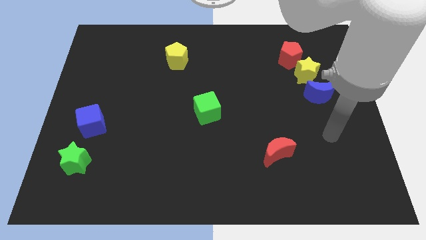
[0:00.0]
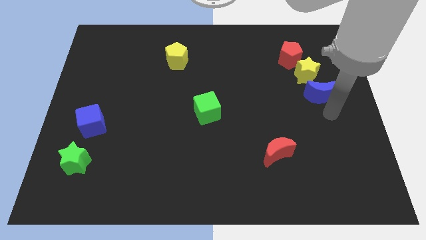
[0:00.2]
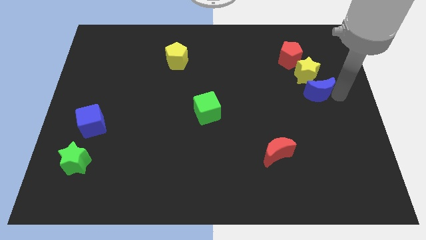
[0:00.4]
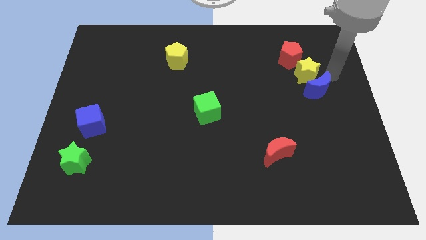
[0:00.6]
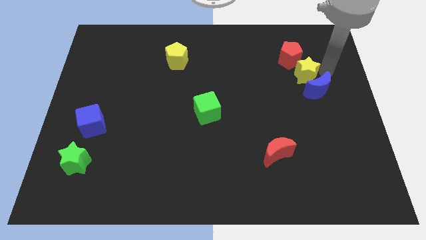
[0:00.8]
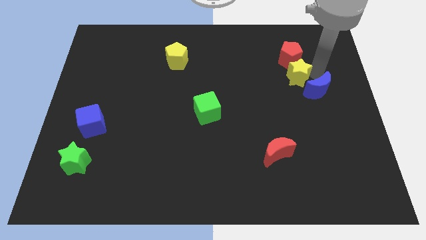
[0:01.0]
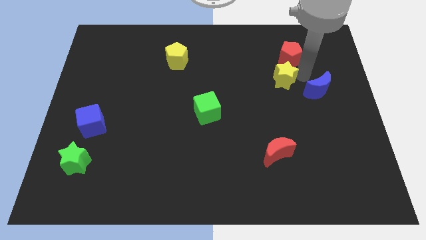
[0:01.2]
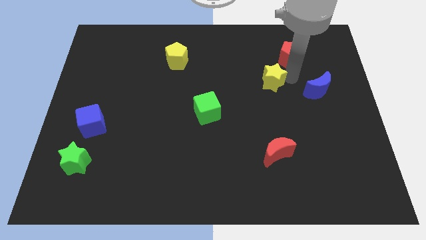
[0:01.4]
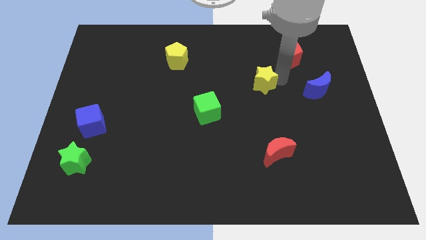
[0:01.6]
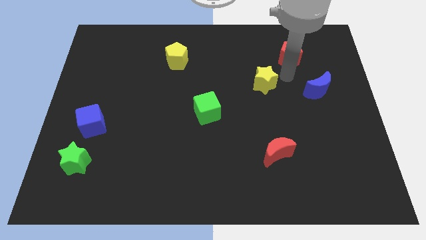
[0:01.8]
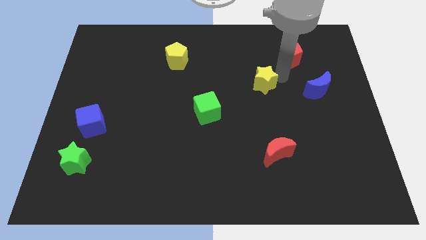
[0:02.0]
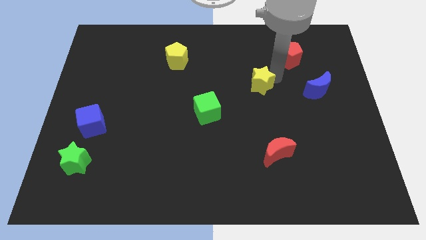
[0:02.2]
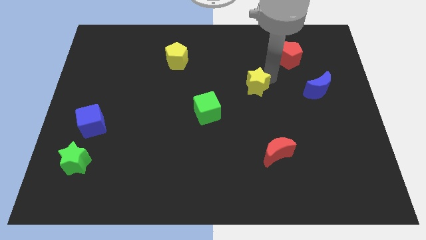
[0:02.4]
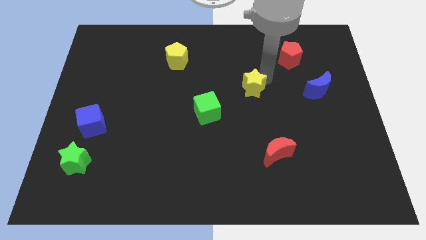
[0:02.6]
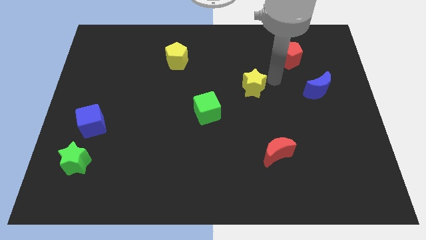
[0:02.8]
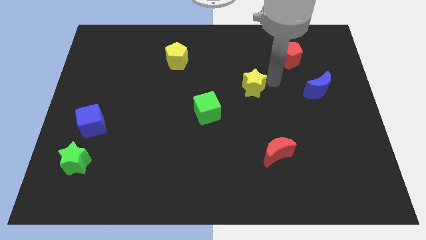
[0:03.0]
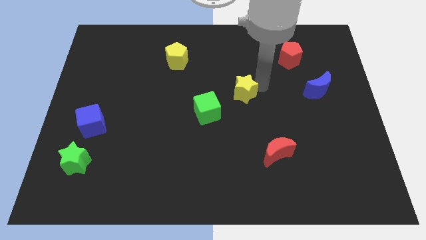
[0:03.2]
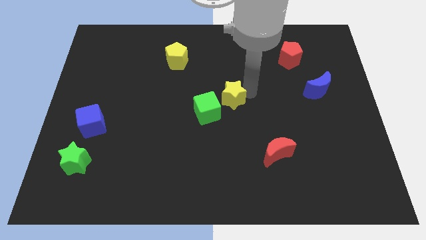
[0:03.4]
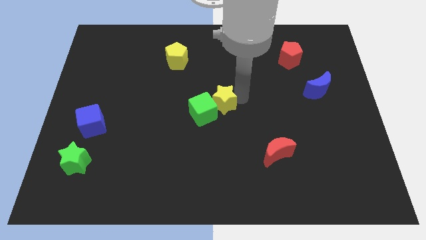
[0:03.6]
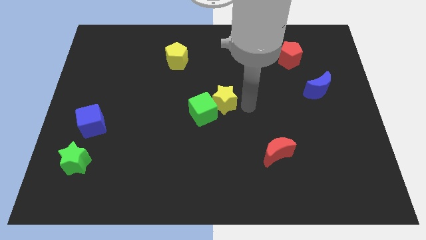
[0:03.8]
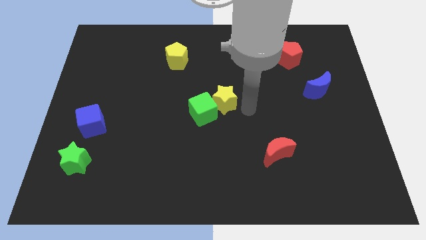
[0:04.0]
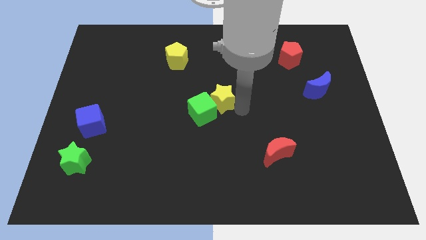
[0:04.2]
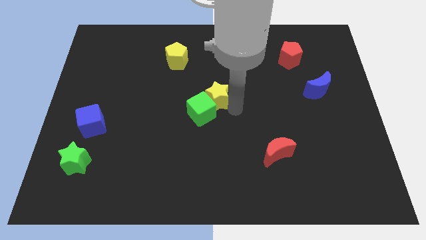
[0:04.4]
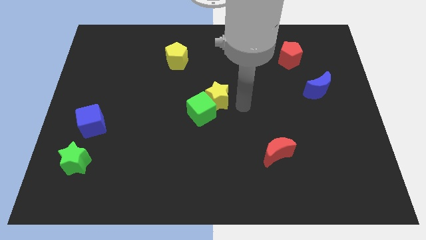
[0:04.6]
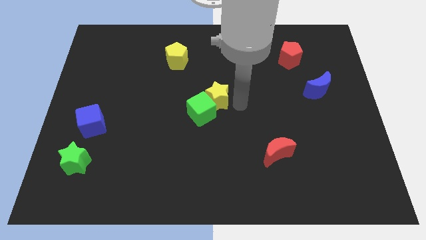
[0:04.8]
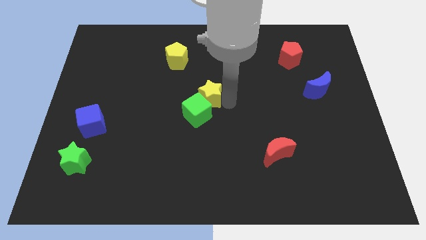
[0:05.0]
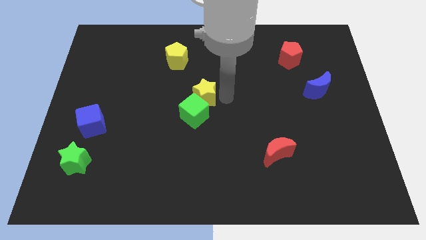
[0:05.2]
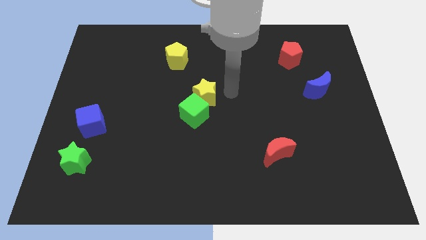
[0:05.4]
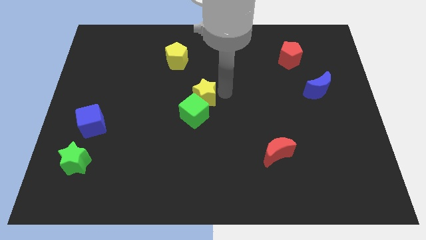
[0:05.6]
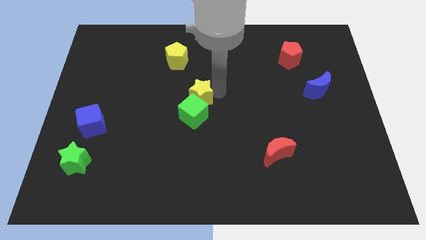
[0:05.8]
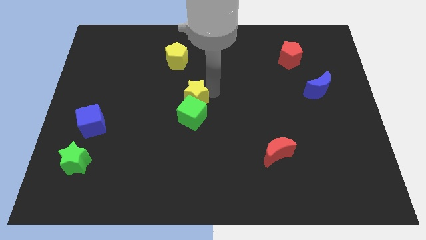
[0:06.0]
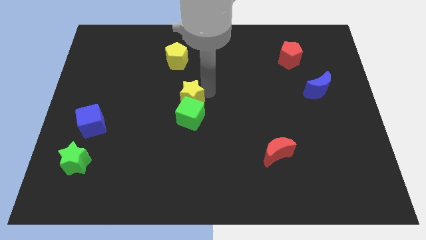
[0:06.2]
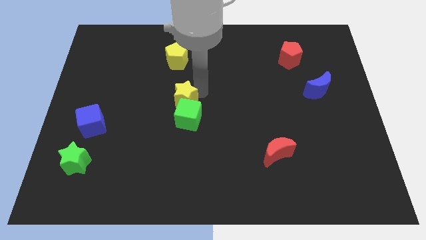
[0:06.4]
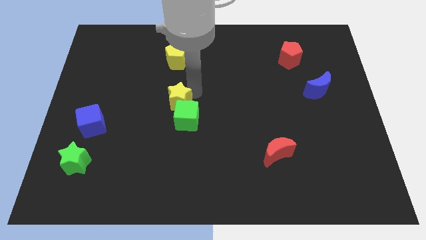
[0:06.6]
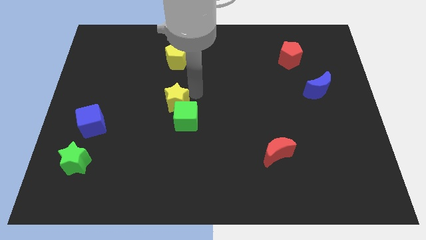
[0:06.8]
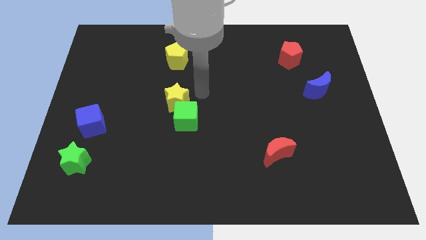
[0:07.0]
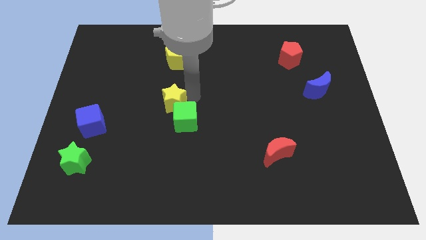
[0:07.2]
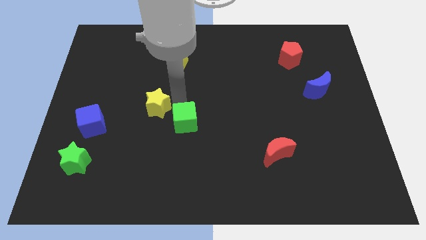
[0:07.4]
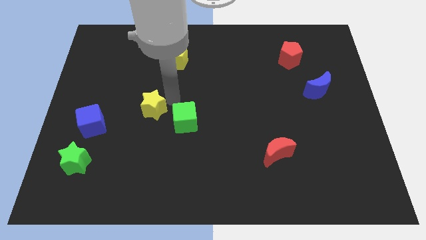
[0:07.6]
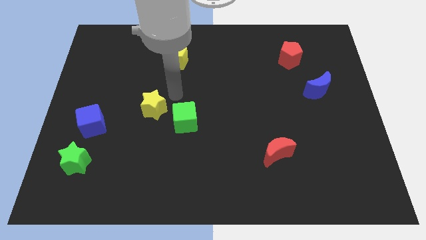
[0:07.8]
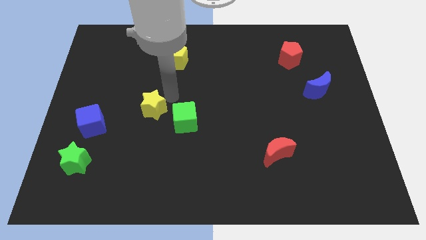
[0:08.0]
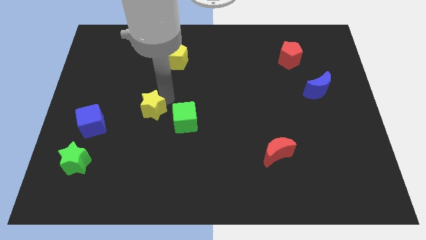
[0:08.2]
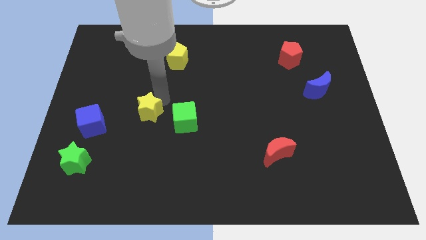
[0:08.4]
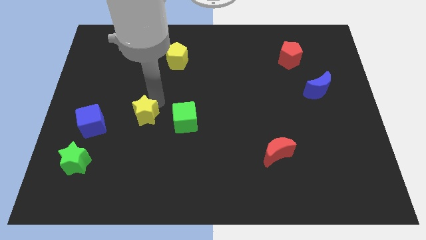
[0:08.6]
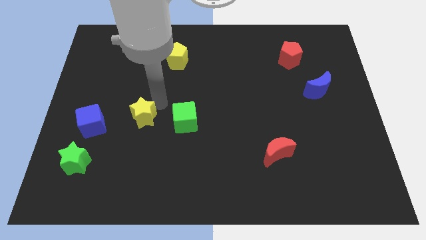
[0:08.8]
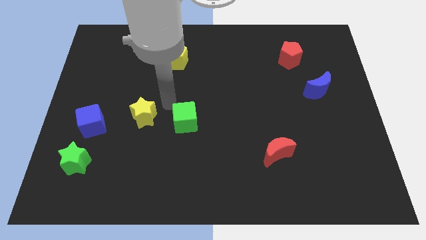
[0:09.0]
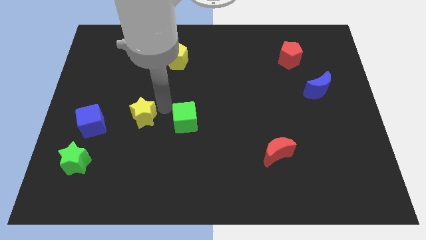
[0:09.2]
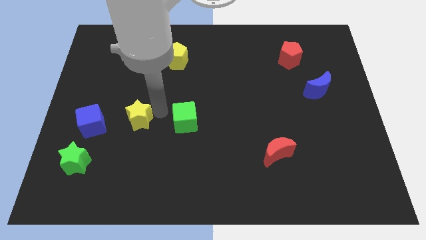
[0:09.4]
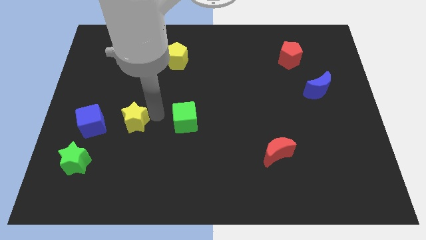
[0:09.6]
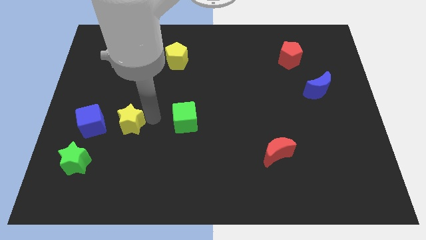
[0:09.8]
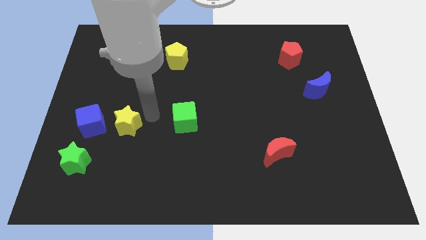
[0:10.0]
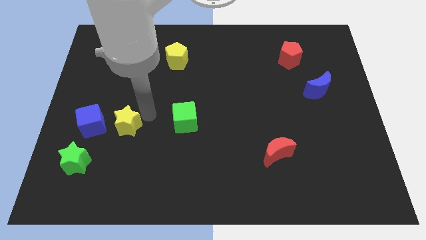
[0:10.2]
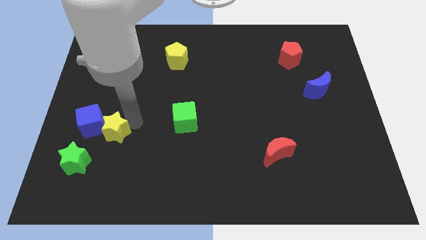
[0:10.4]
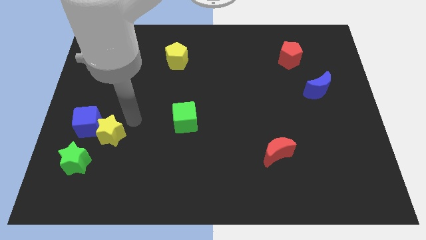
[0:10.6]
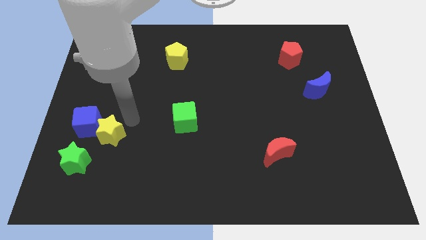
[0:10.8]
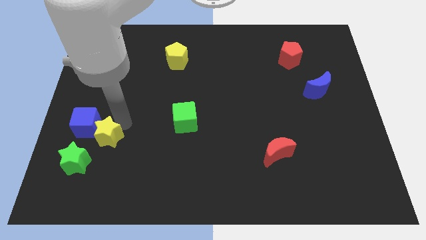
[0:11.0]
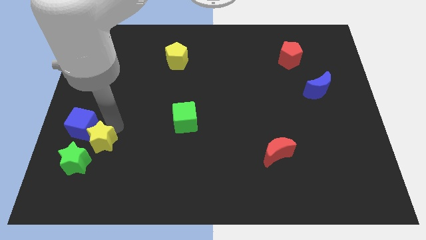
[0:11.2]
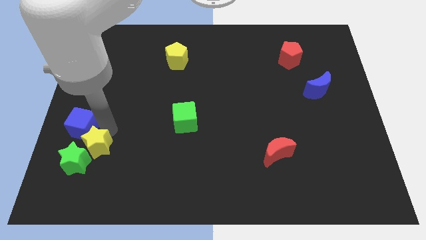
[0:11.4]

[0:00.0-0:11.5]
push the yellow star close to the green star

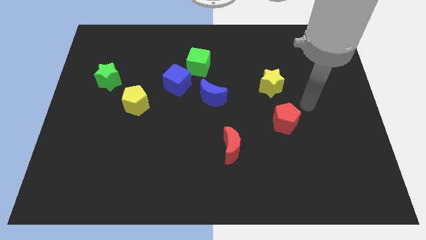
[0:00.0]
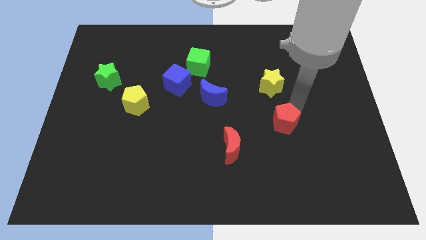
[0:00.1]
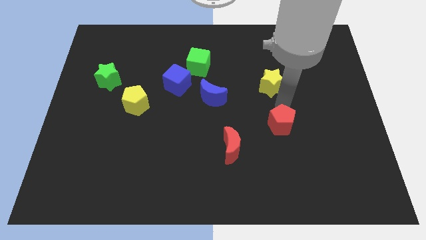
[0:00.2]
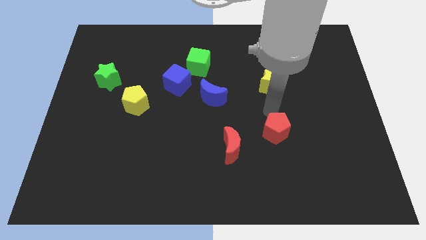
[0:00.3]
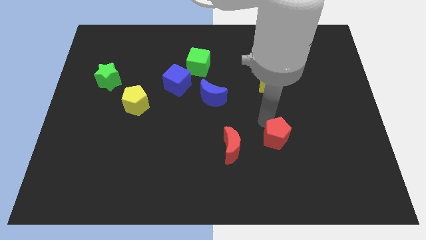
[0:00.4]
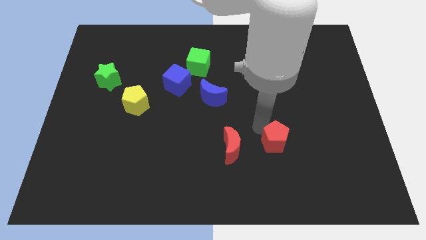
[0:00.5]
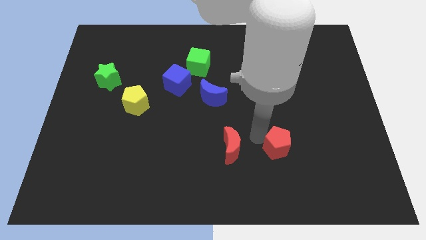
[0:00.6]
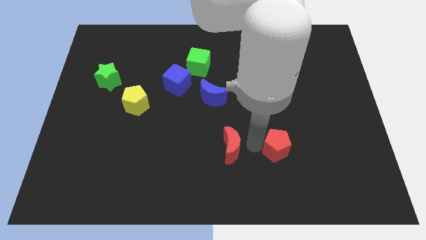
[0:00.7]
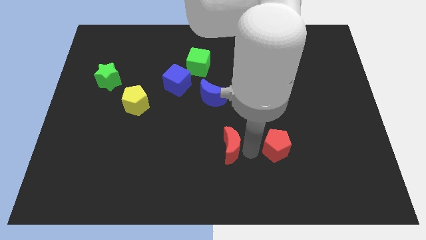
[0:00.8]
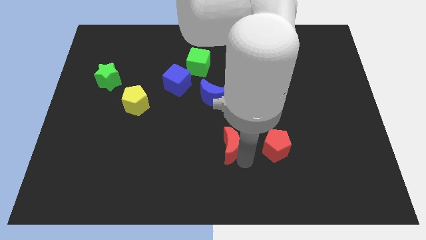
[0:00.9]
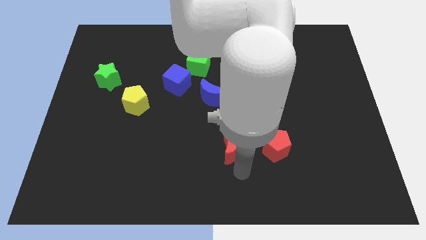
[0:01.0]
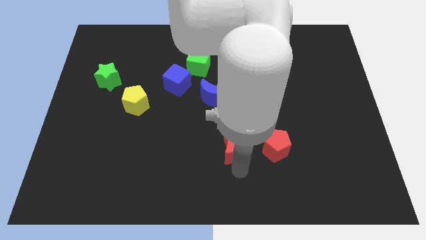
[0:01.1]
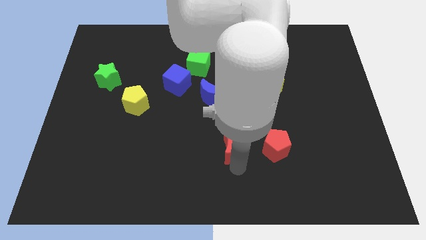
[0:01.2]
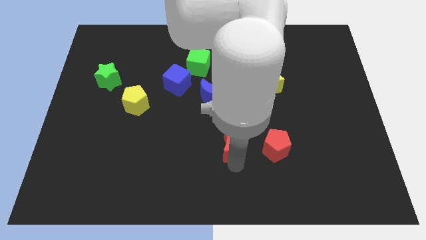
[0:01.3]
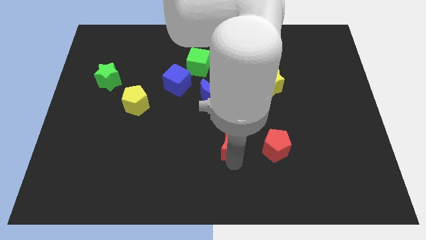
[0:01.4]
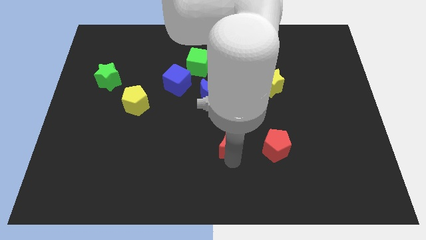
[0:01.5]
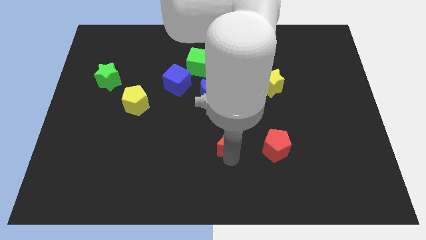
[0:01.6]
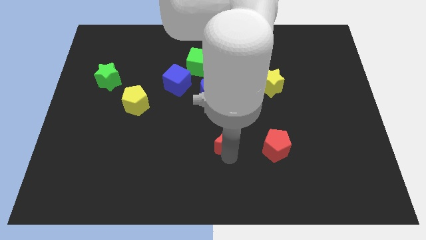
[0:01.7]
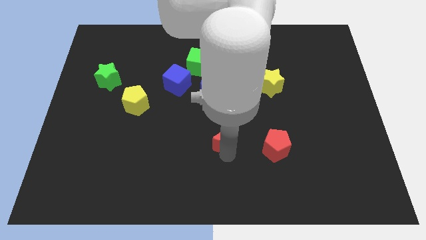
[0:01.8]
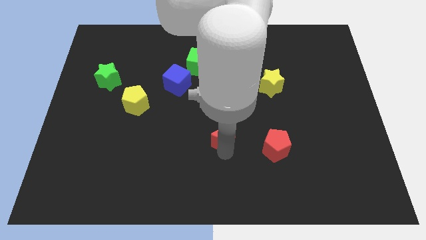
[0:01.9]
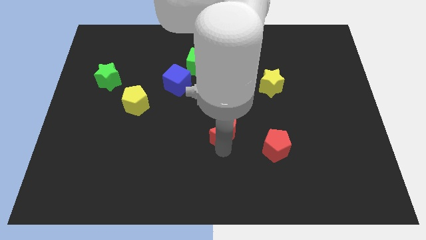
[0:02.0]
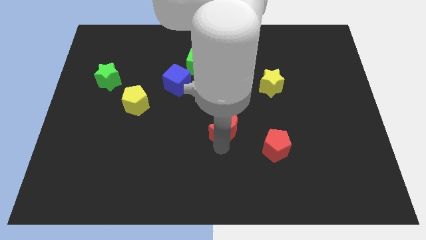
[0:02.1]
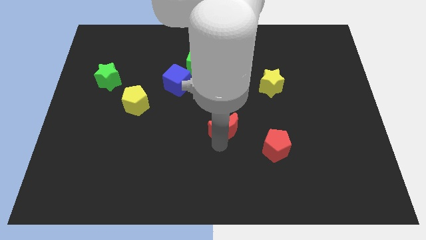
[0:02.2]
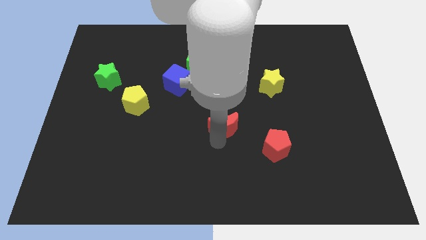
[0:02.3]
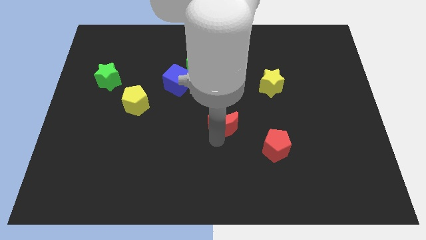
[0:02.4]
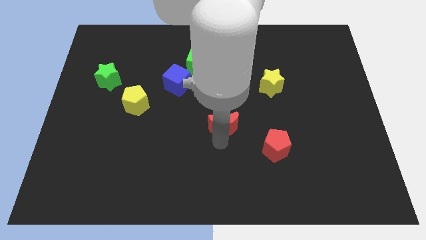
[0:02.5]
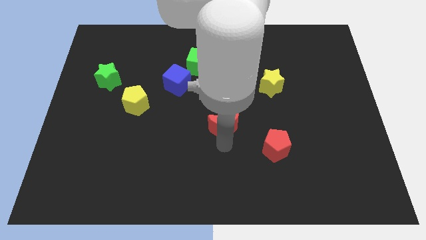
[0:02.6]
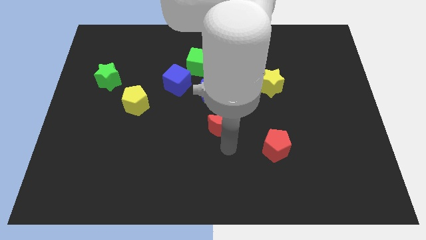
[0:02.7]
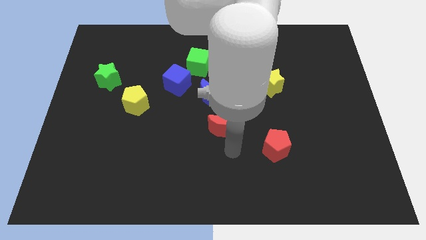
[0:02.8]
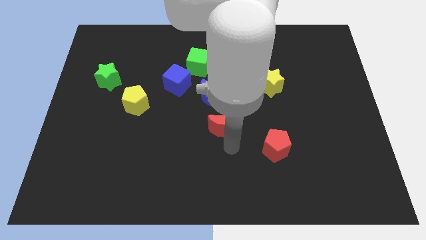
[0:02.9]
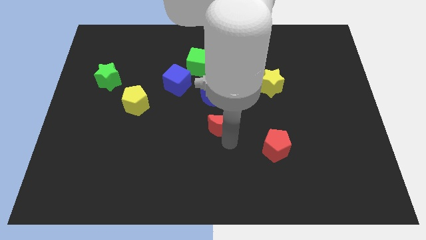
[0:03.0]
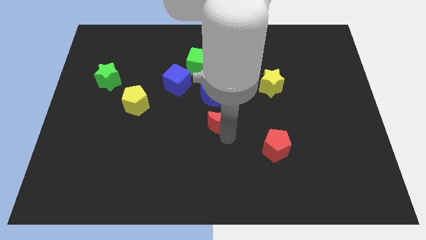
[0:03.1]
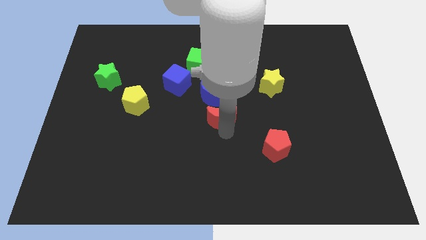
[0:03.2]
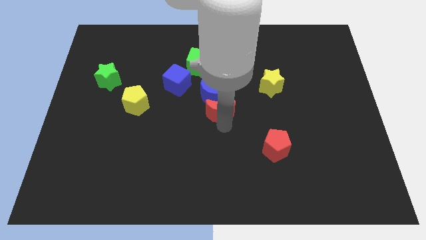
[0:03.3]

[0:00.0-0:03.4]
put the red moon to the blue moon
